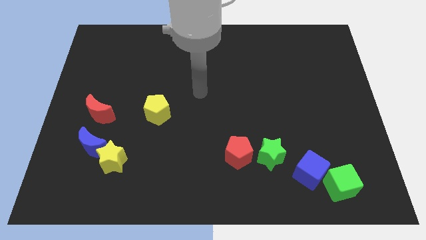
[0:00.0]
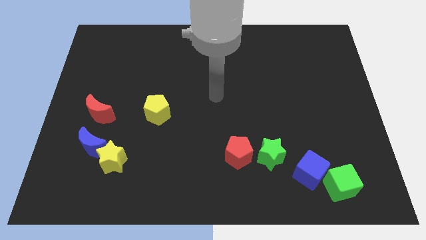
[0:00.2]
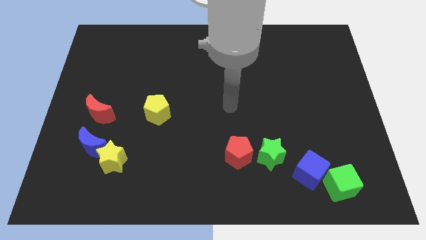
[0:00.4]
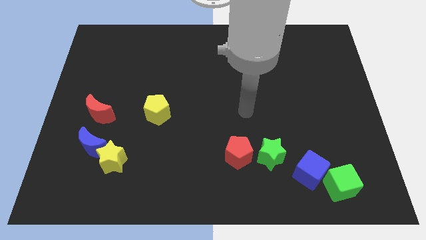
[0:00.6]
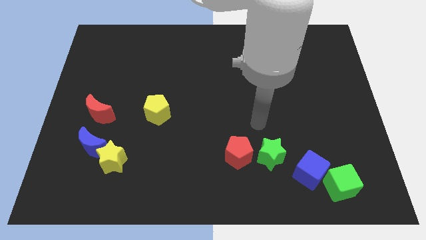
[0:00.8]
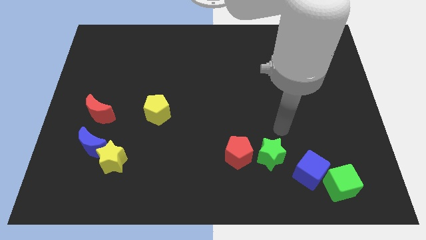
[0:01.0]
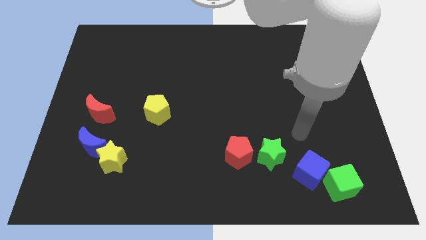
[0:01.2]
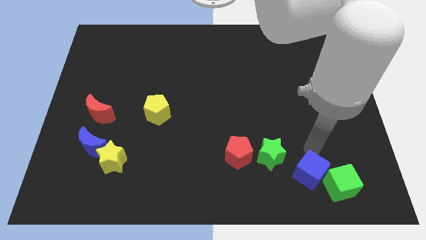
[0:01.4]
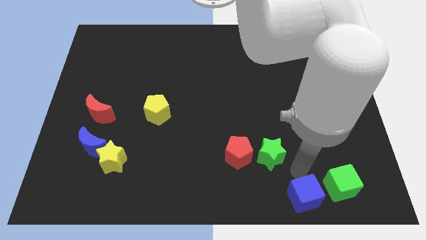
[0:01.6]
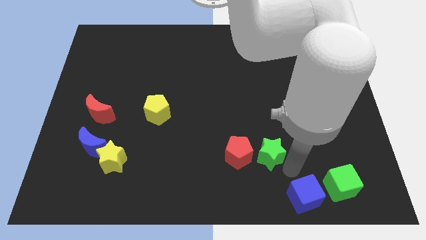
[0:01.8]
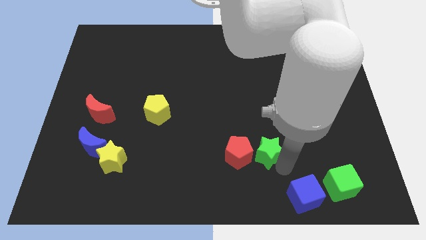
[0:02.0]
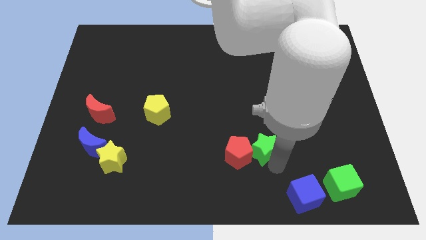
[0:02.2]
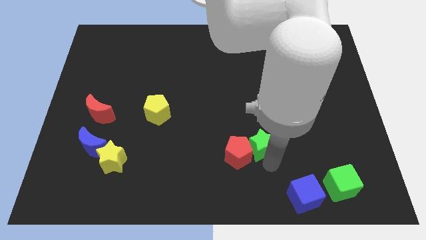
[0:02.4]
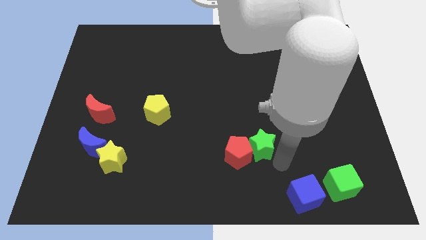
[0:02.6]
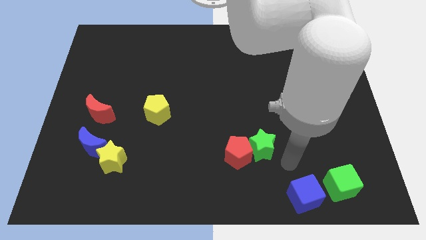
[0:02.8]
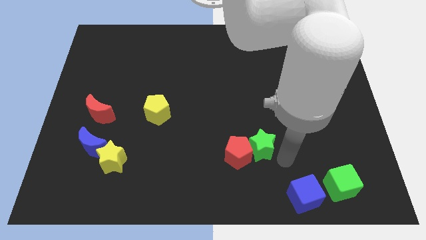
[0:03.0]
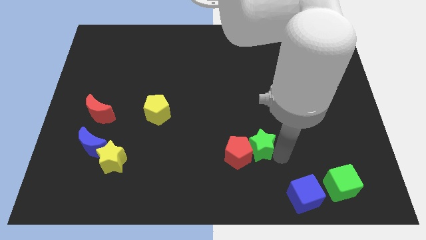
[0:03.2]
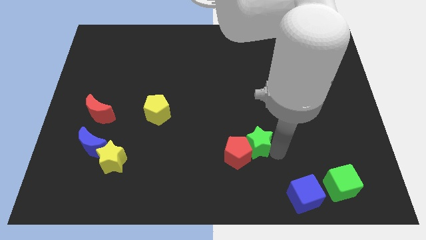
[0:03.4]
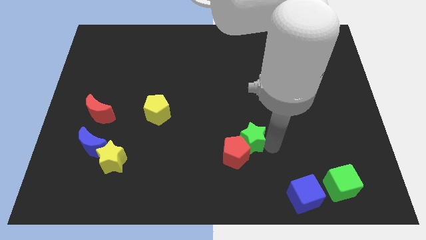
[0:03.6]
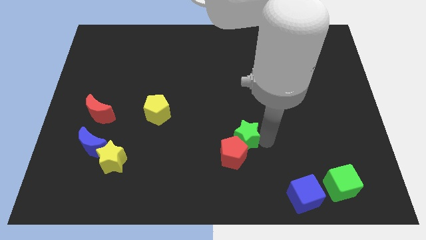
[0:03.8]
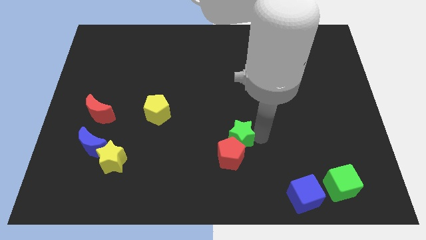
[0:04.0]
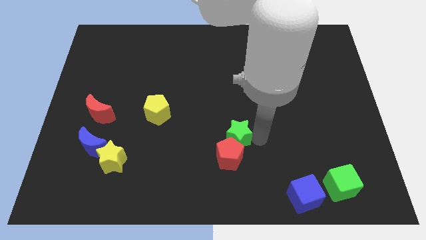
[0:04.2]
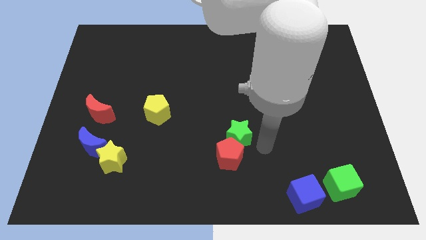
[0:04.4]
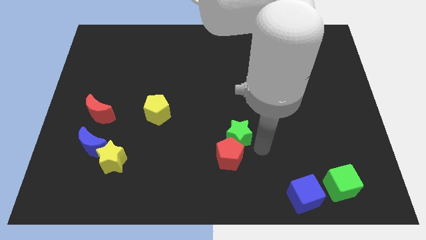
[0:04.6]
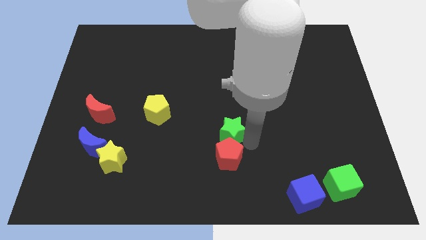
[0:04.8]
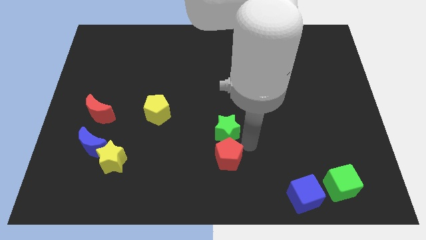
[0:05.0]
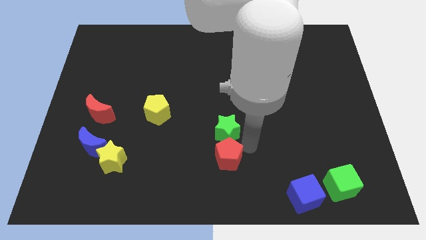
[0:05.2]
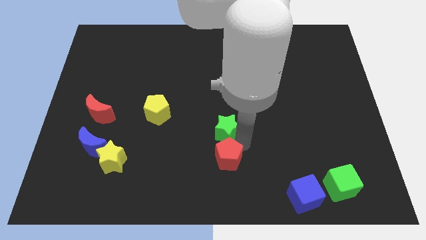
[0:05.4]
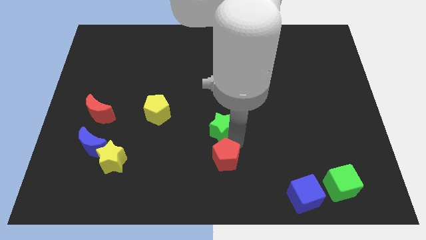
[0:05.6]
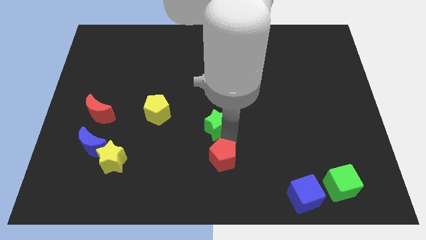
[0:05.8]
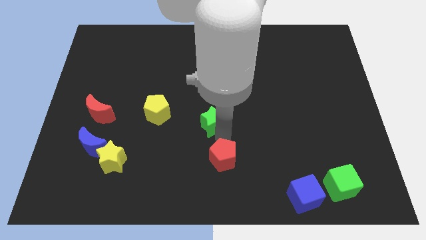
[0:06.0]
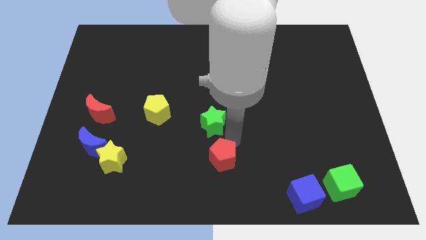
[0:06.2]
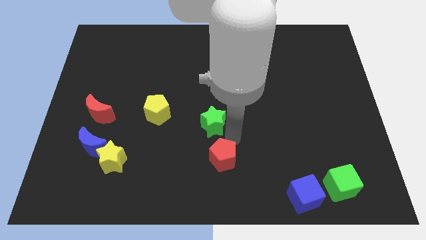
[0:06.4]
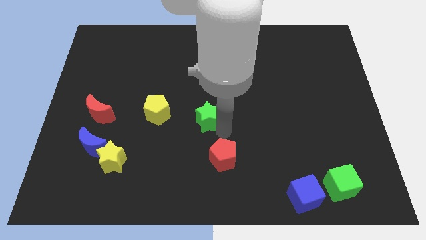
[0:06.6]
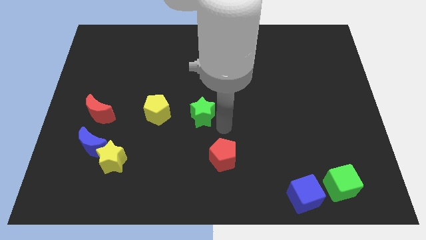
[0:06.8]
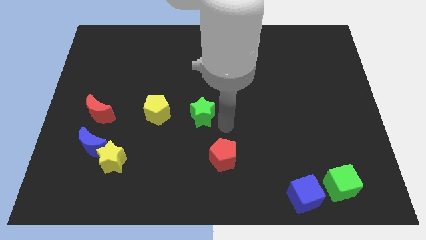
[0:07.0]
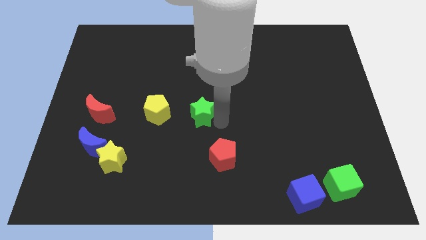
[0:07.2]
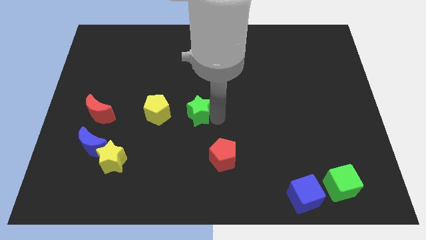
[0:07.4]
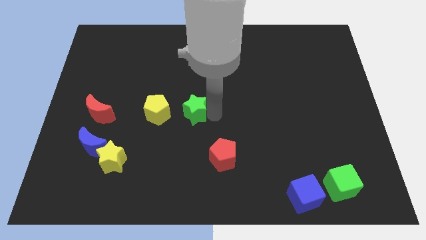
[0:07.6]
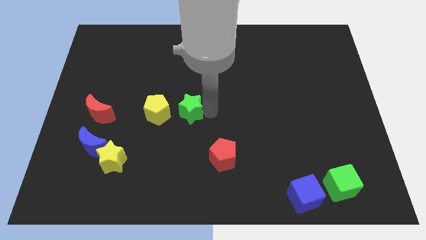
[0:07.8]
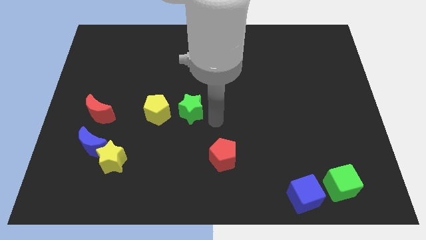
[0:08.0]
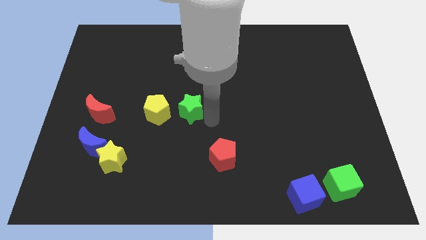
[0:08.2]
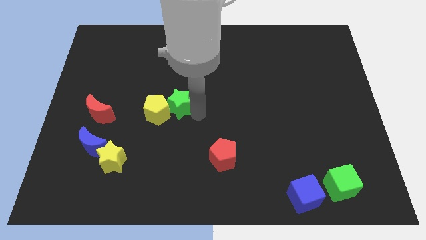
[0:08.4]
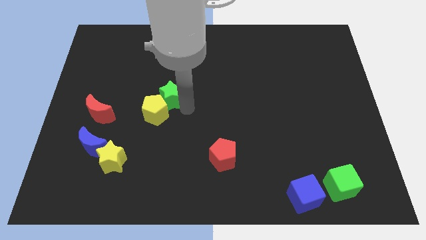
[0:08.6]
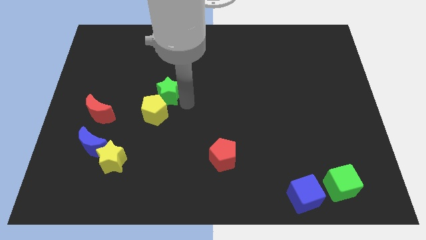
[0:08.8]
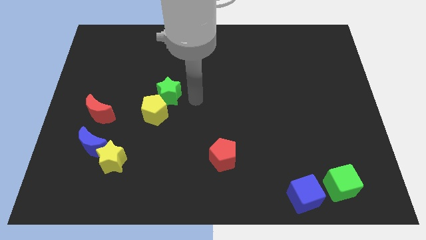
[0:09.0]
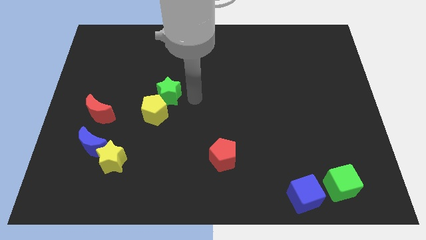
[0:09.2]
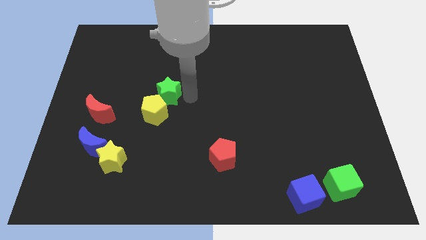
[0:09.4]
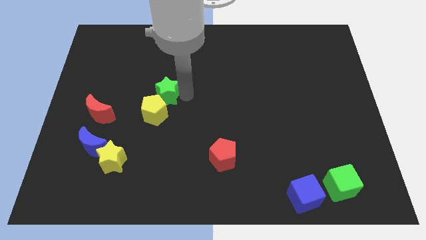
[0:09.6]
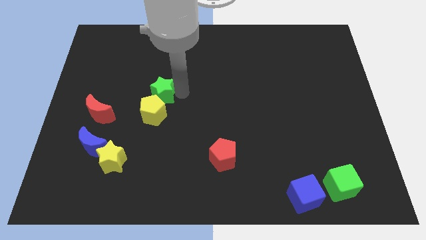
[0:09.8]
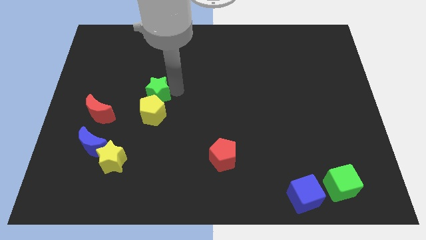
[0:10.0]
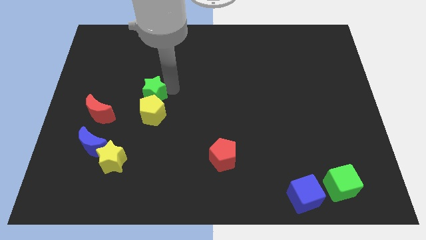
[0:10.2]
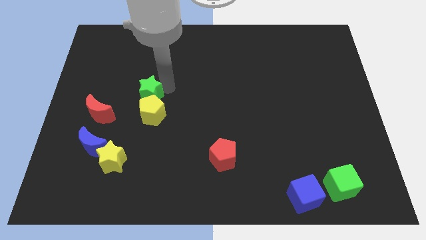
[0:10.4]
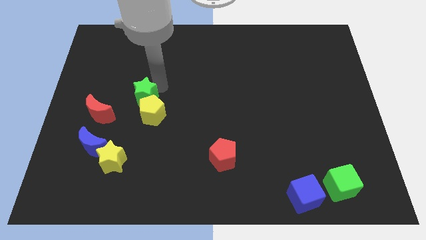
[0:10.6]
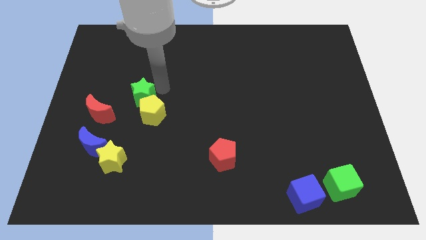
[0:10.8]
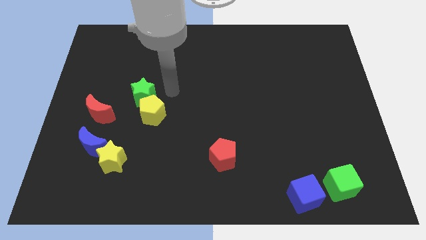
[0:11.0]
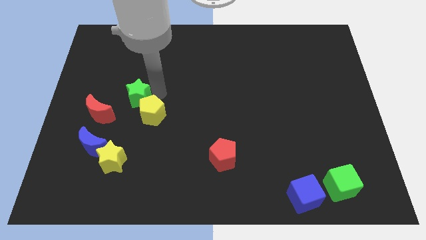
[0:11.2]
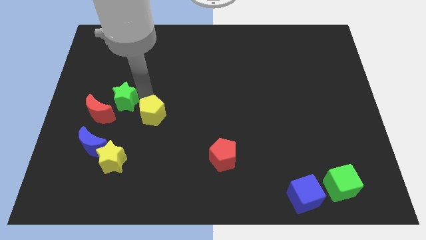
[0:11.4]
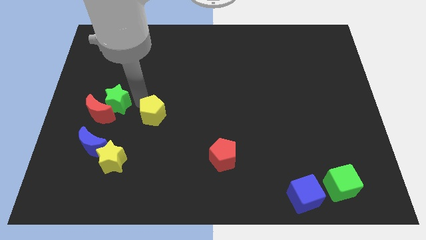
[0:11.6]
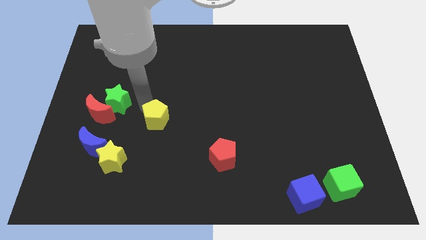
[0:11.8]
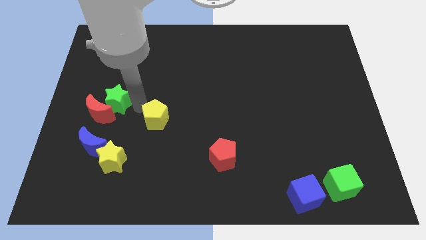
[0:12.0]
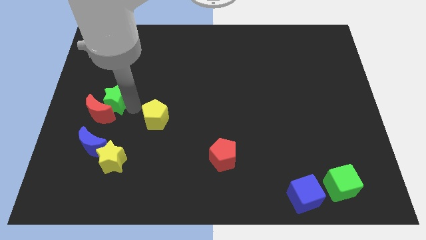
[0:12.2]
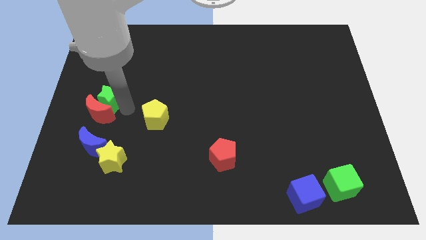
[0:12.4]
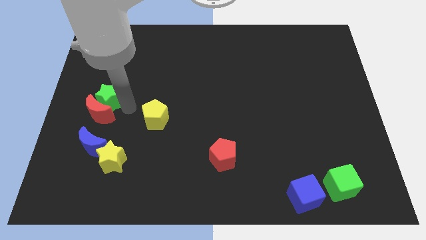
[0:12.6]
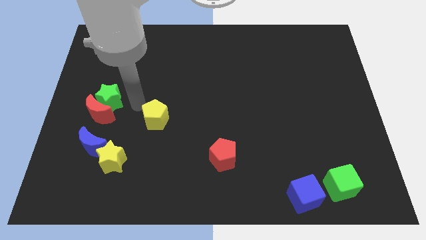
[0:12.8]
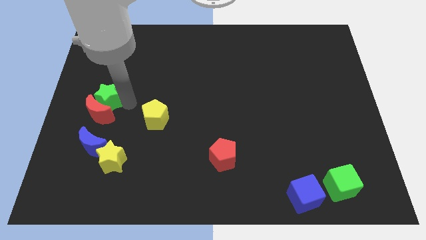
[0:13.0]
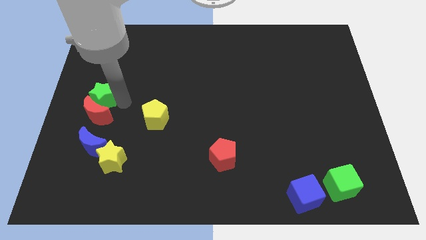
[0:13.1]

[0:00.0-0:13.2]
put the green star to the left side
